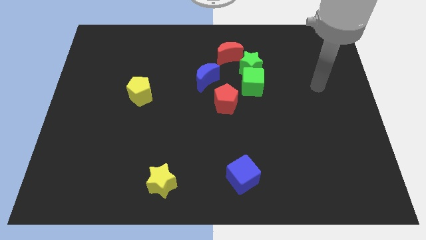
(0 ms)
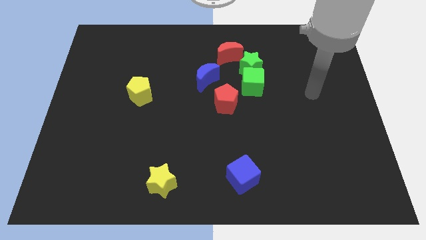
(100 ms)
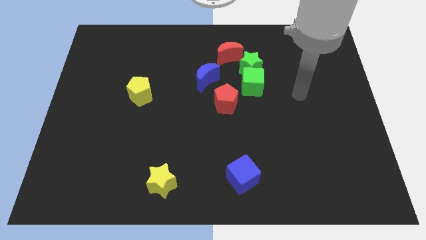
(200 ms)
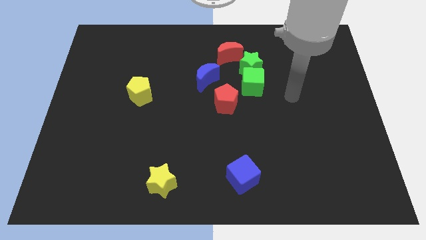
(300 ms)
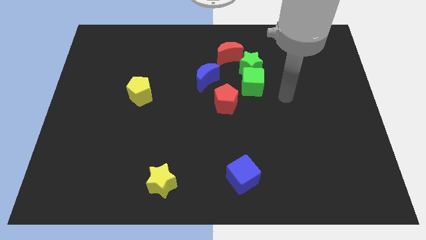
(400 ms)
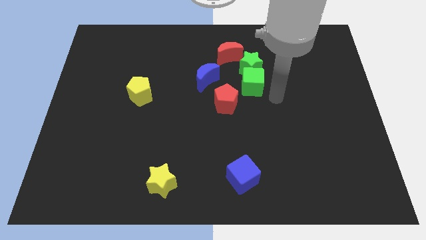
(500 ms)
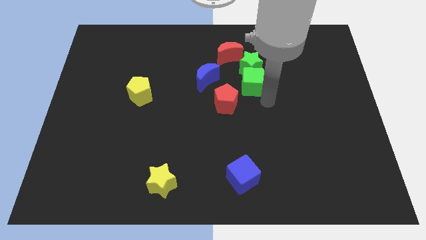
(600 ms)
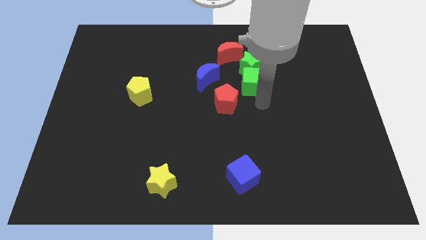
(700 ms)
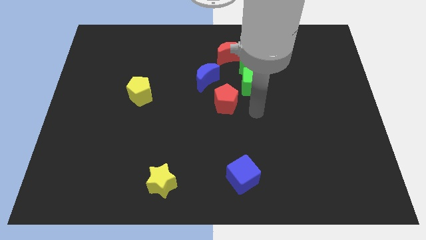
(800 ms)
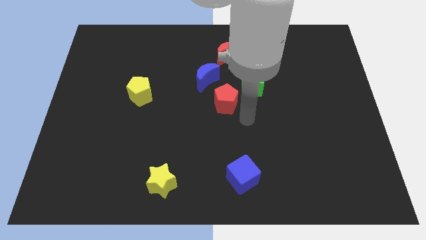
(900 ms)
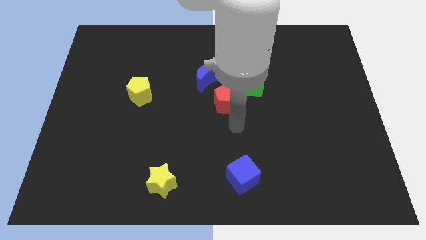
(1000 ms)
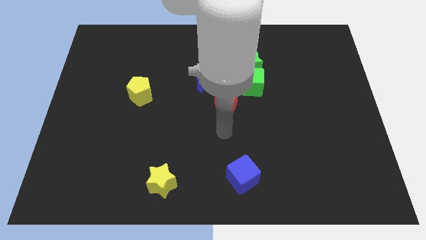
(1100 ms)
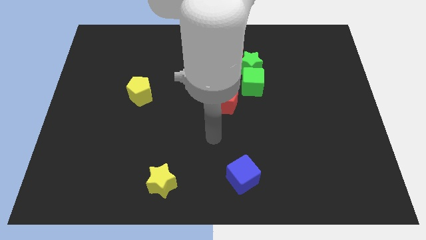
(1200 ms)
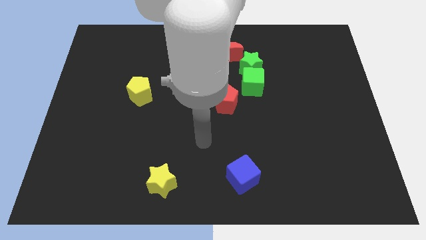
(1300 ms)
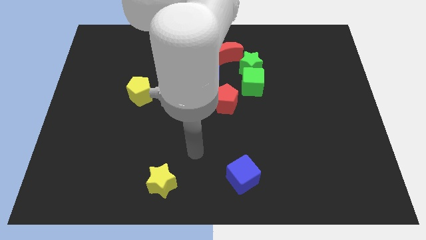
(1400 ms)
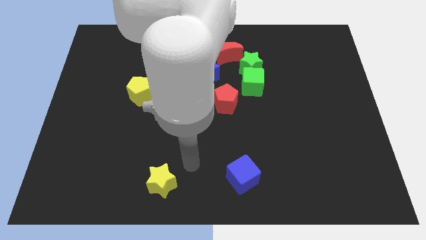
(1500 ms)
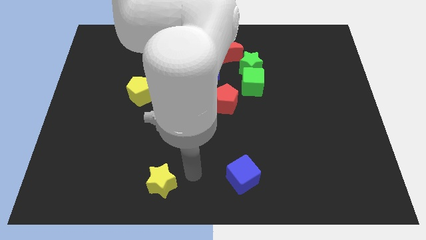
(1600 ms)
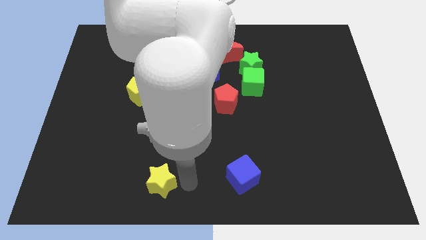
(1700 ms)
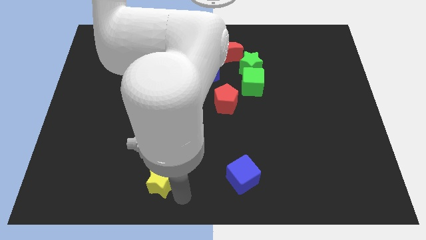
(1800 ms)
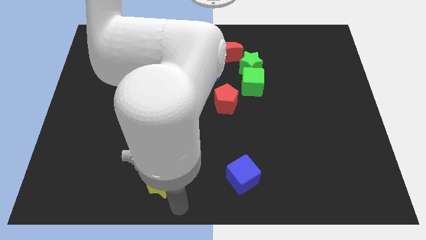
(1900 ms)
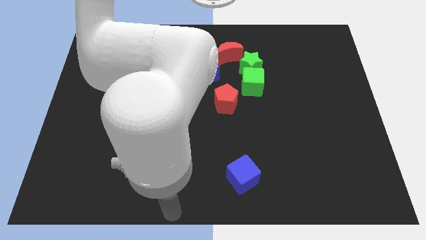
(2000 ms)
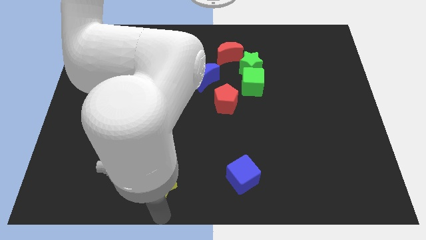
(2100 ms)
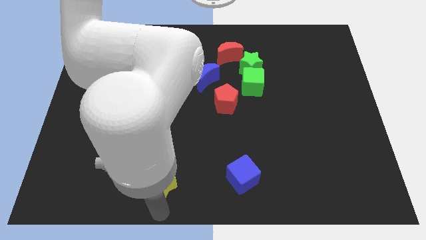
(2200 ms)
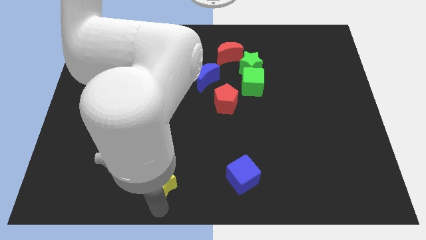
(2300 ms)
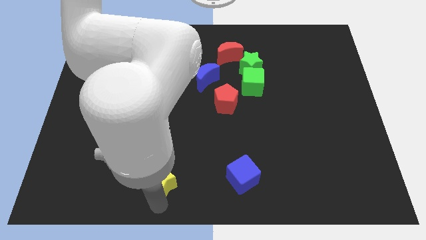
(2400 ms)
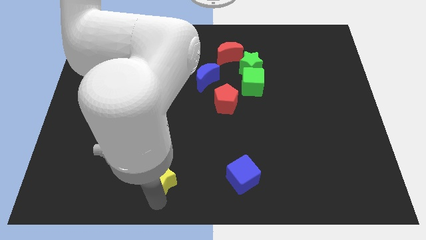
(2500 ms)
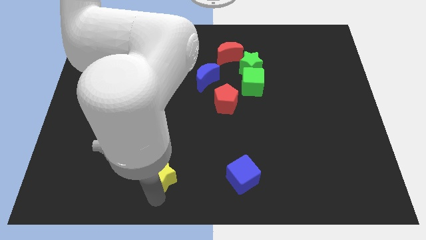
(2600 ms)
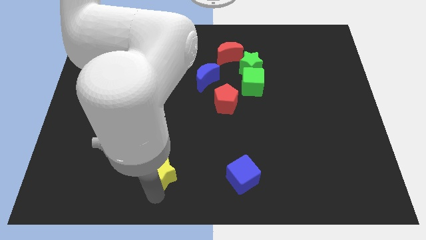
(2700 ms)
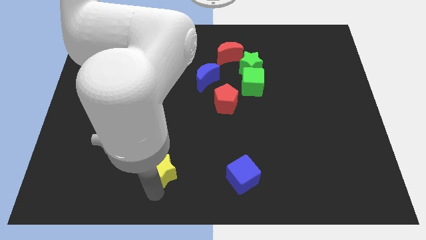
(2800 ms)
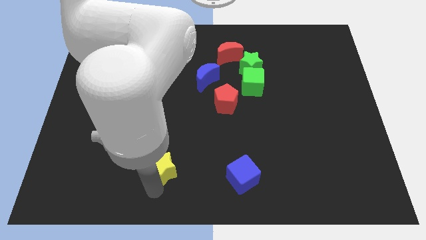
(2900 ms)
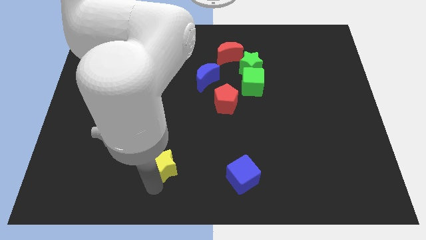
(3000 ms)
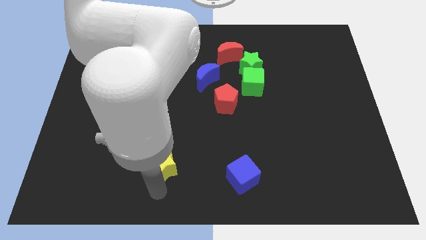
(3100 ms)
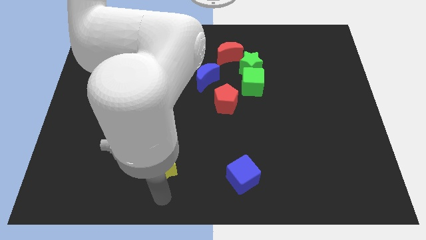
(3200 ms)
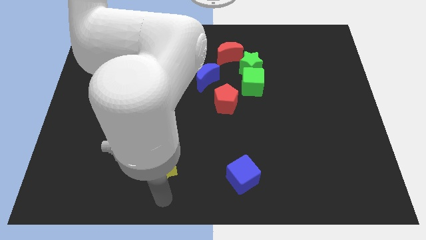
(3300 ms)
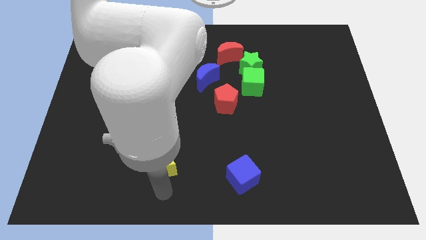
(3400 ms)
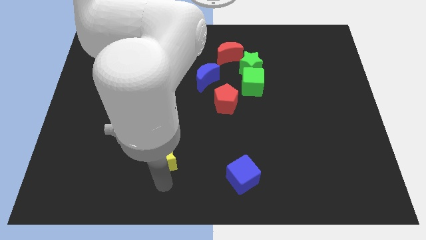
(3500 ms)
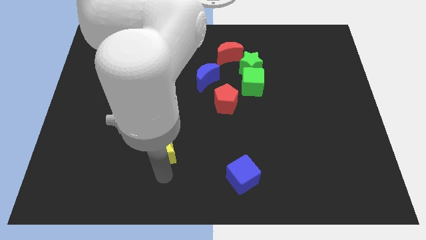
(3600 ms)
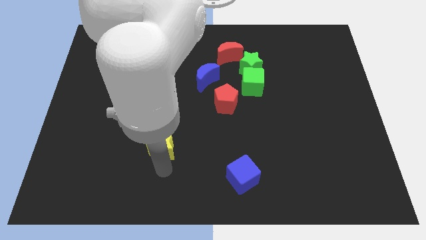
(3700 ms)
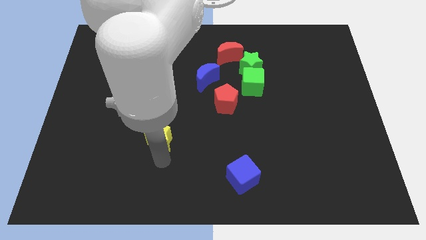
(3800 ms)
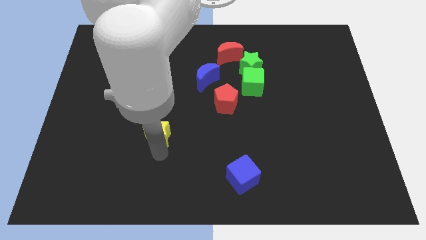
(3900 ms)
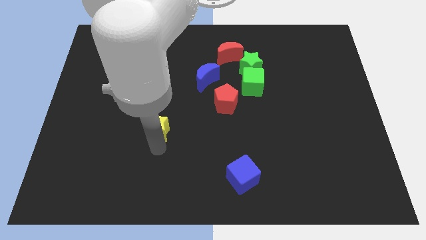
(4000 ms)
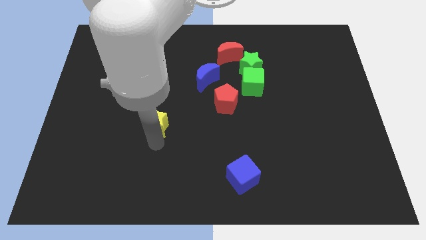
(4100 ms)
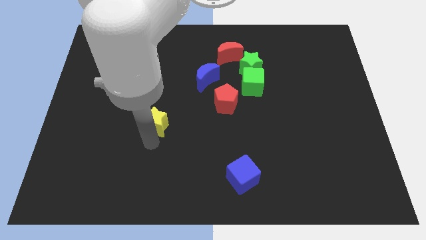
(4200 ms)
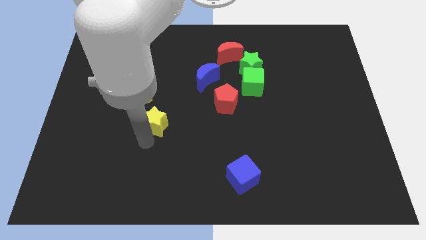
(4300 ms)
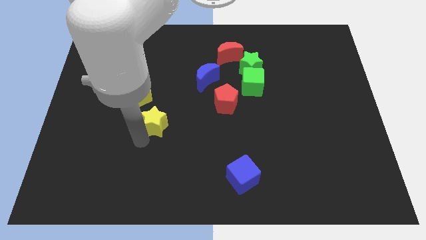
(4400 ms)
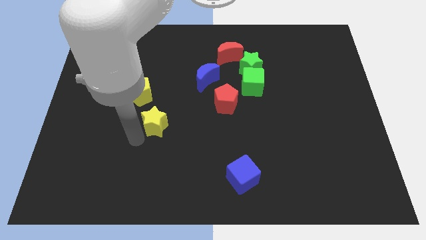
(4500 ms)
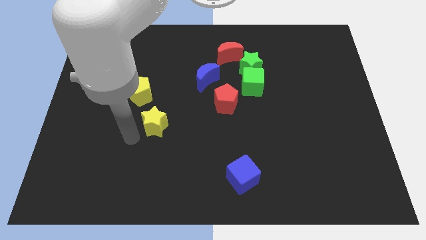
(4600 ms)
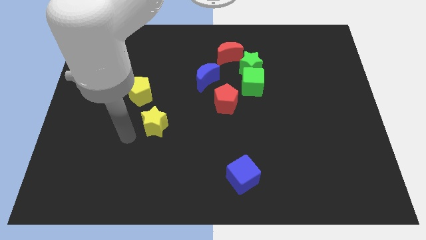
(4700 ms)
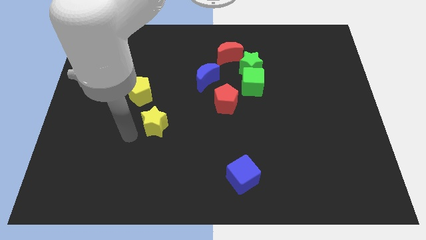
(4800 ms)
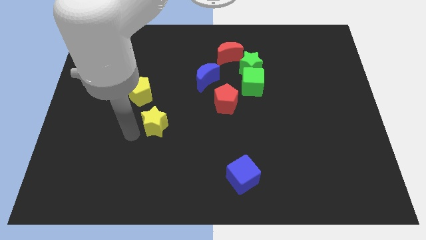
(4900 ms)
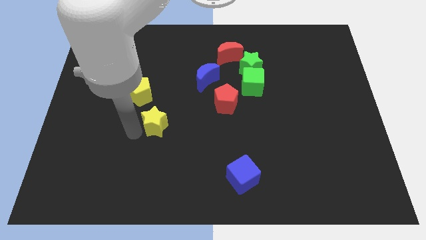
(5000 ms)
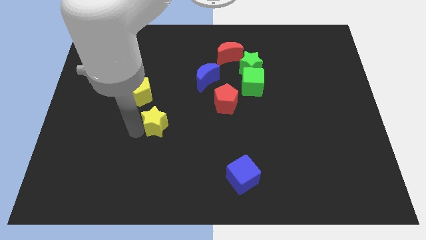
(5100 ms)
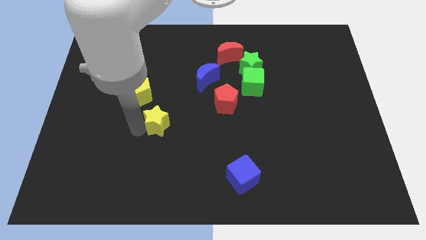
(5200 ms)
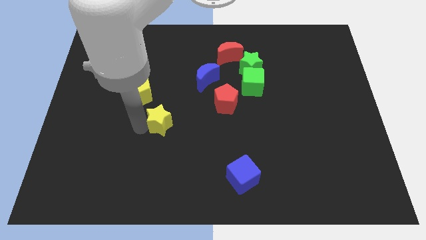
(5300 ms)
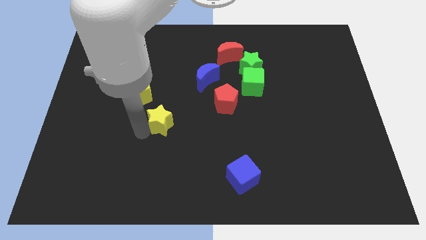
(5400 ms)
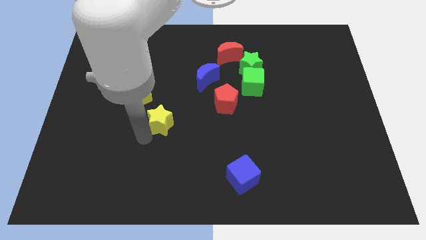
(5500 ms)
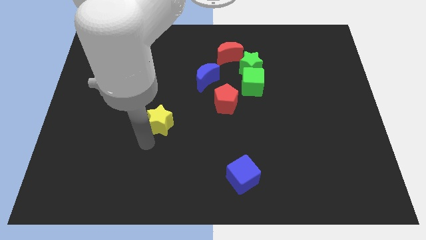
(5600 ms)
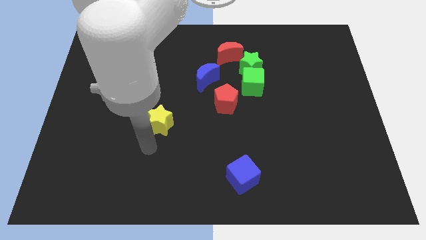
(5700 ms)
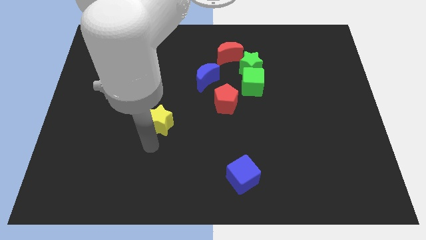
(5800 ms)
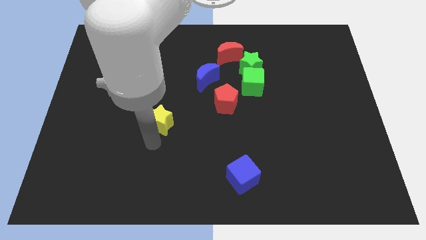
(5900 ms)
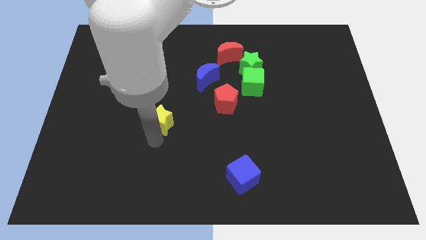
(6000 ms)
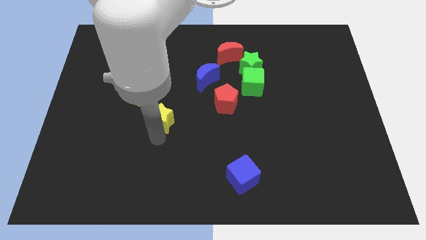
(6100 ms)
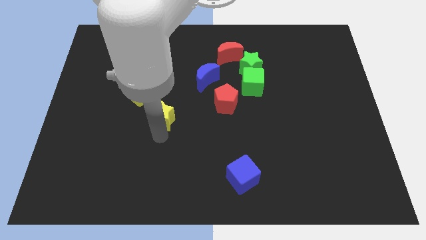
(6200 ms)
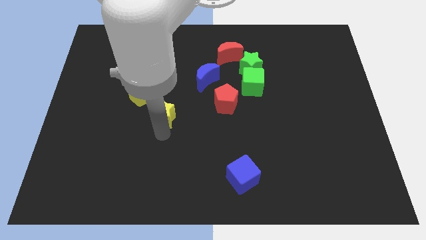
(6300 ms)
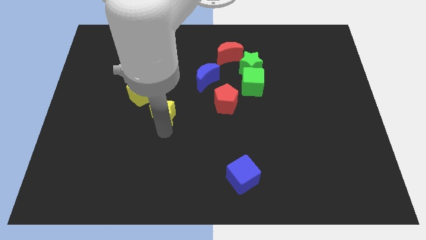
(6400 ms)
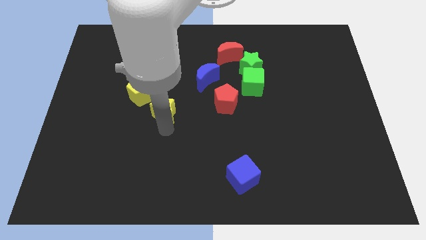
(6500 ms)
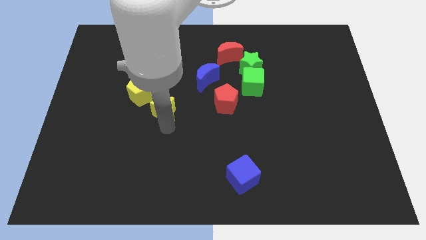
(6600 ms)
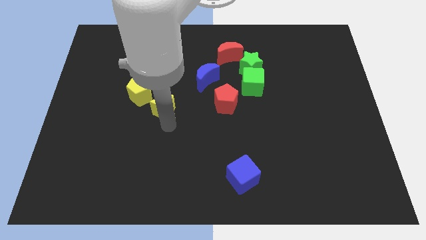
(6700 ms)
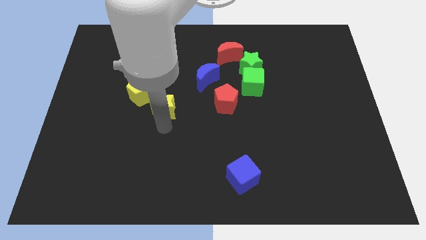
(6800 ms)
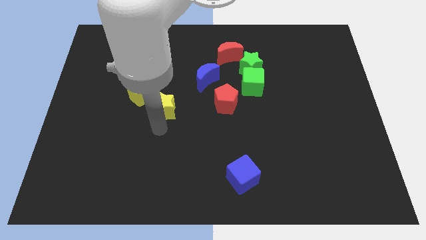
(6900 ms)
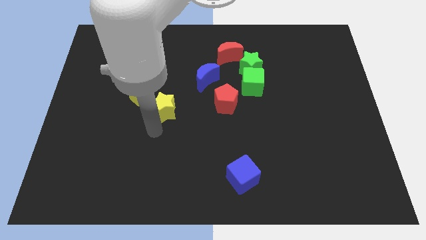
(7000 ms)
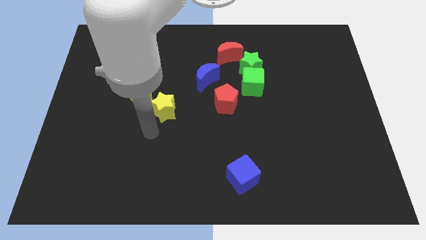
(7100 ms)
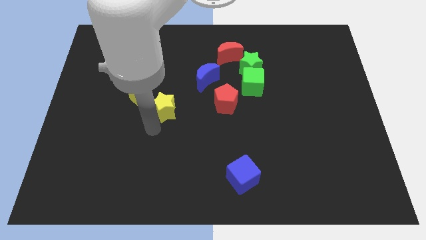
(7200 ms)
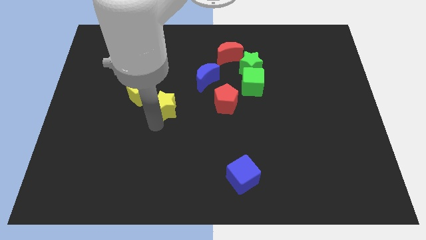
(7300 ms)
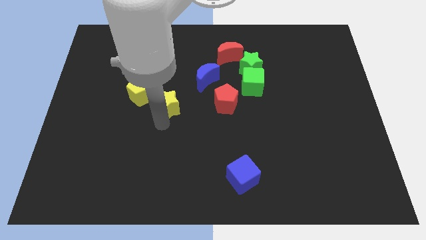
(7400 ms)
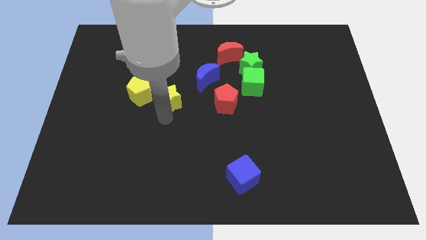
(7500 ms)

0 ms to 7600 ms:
push the yellow star upwards
